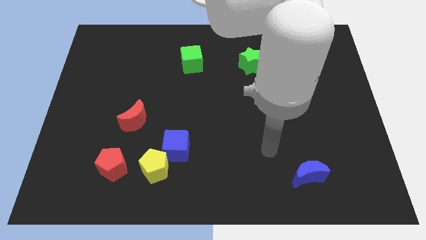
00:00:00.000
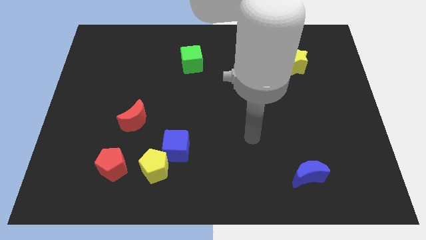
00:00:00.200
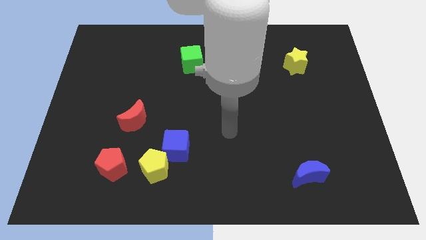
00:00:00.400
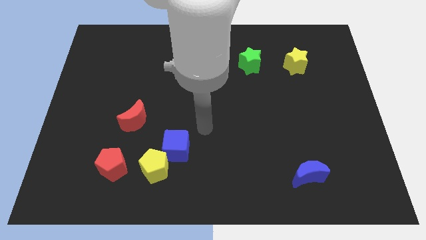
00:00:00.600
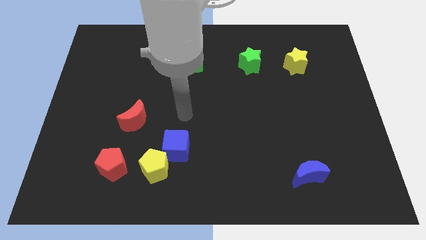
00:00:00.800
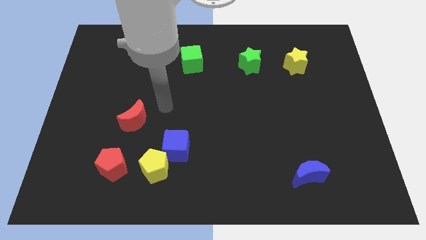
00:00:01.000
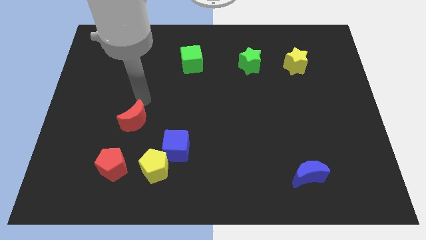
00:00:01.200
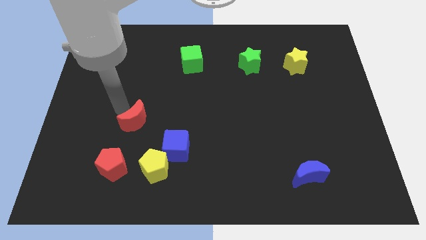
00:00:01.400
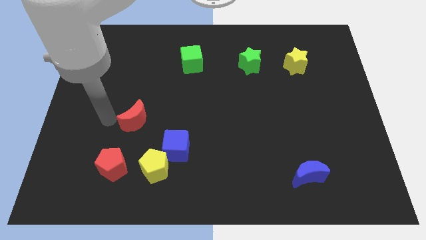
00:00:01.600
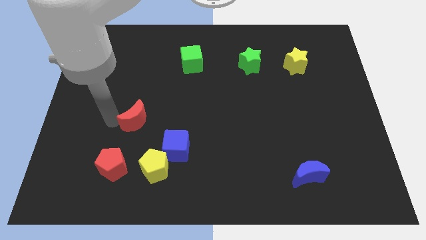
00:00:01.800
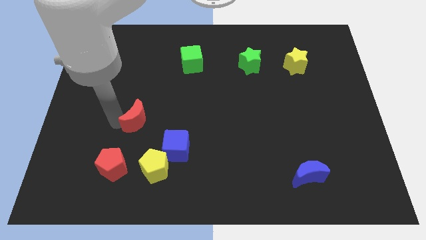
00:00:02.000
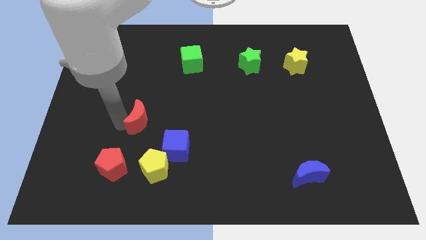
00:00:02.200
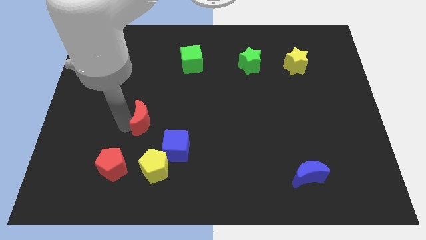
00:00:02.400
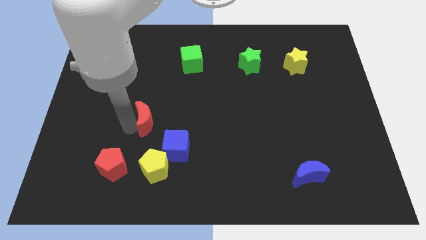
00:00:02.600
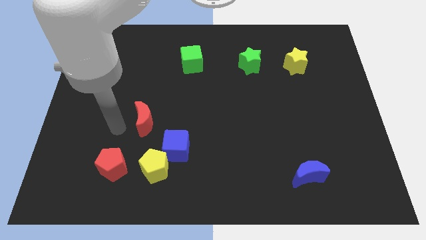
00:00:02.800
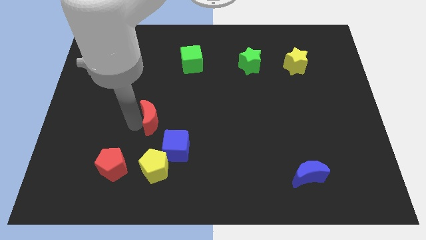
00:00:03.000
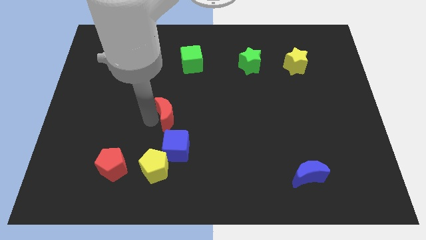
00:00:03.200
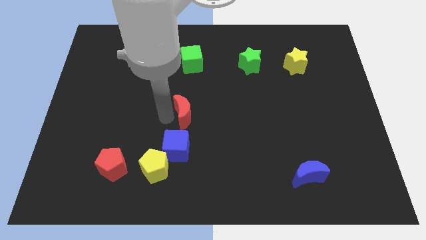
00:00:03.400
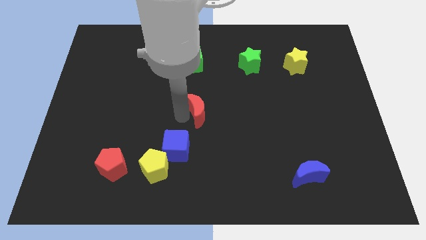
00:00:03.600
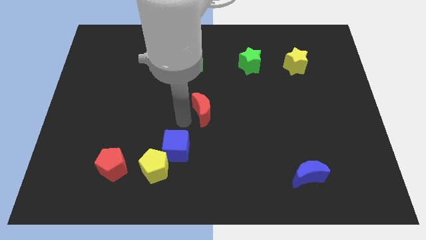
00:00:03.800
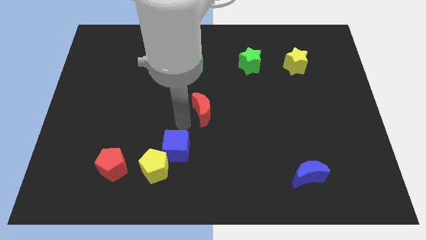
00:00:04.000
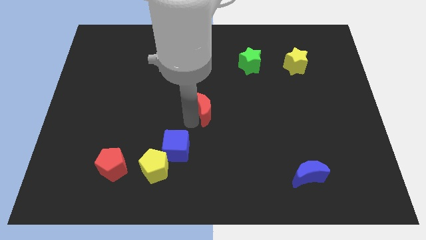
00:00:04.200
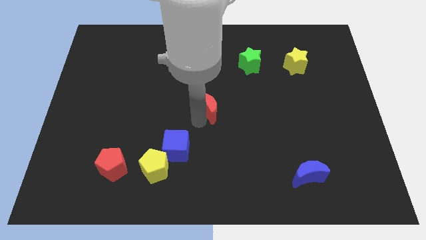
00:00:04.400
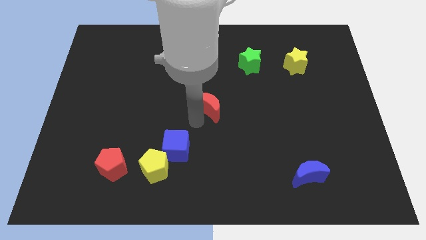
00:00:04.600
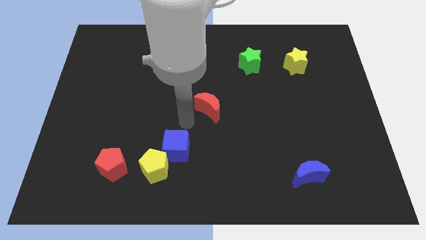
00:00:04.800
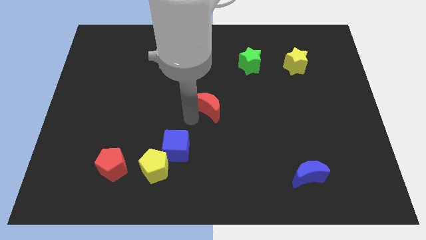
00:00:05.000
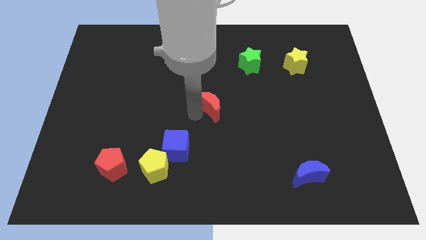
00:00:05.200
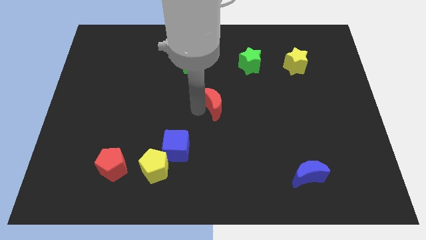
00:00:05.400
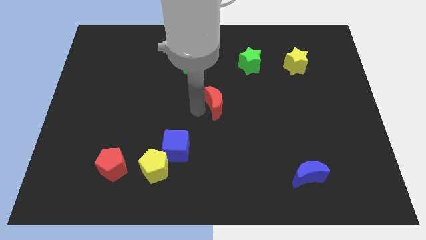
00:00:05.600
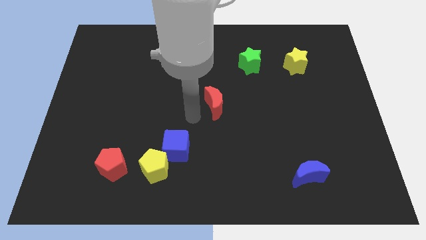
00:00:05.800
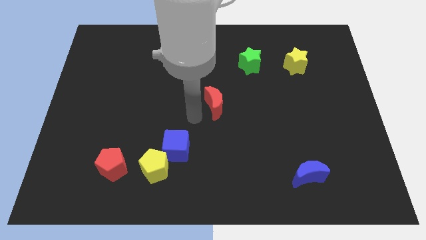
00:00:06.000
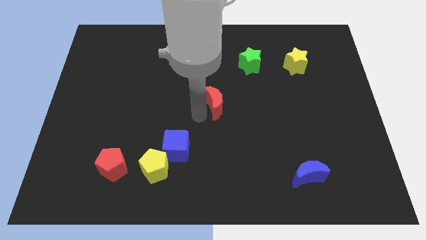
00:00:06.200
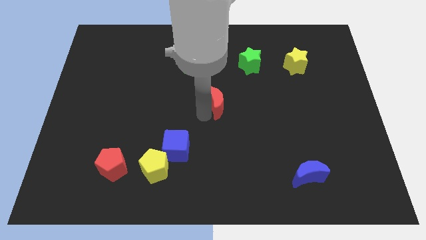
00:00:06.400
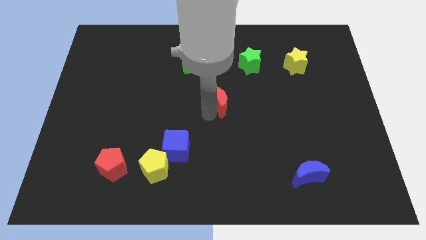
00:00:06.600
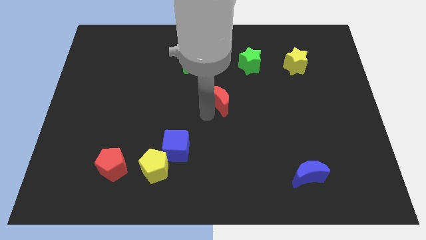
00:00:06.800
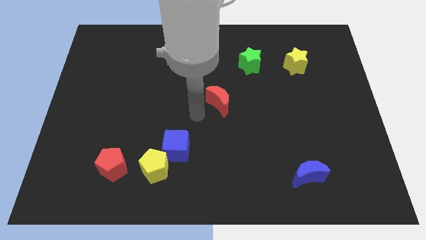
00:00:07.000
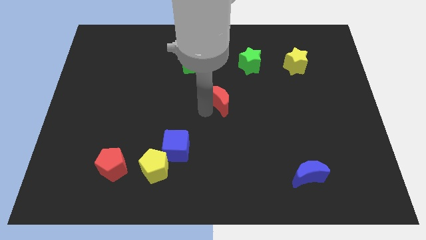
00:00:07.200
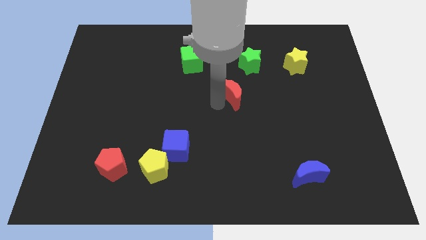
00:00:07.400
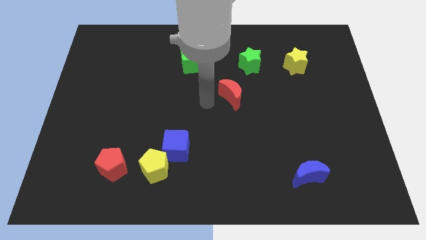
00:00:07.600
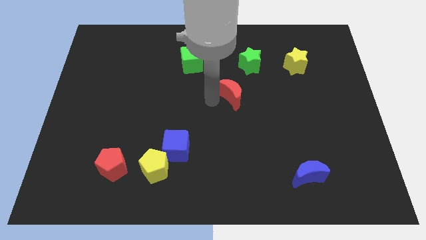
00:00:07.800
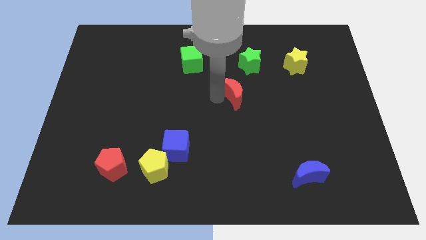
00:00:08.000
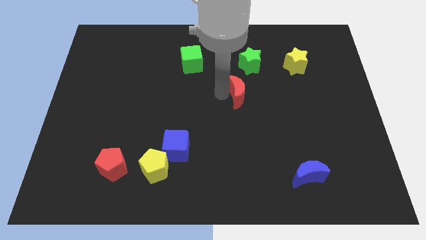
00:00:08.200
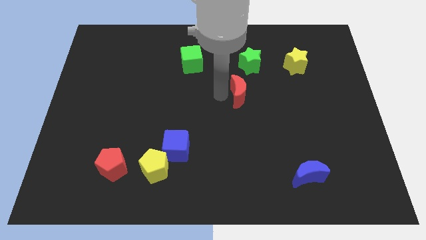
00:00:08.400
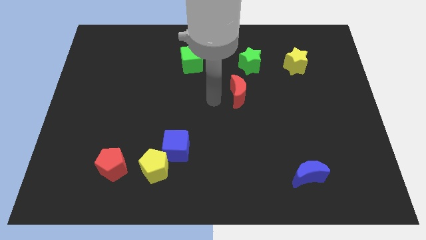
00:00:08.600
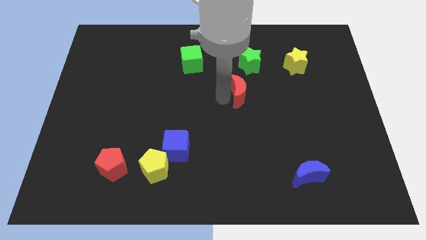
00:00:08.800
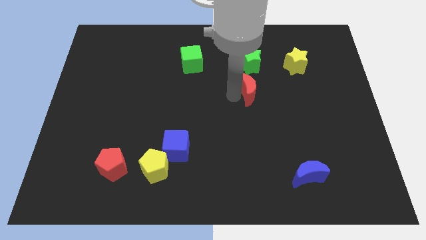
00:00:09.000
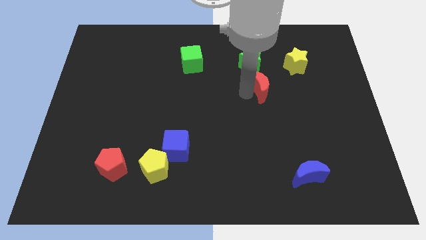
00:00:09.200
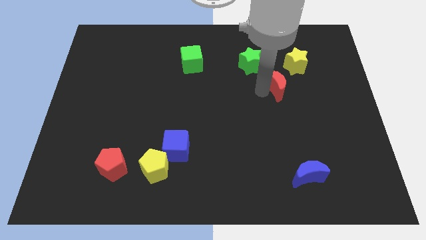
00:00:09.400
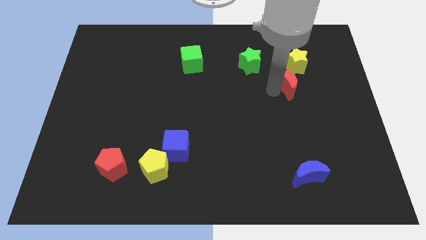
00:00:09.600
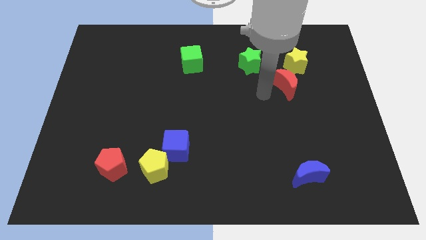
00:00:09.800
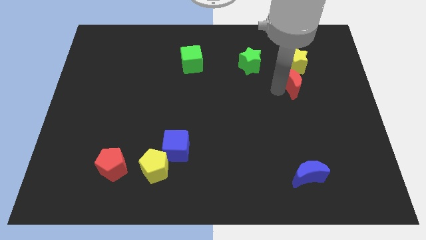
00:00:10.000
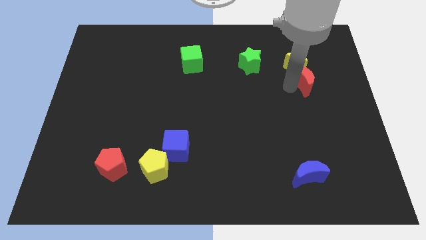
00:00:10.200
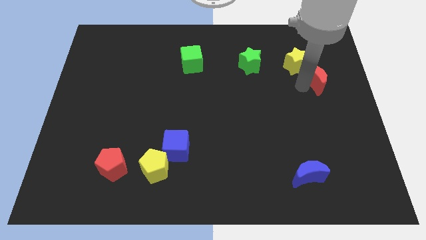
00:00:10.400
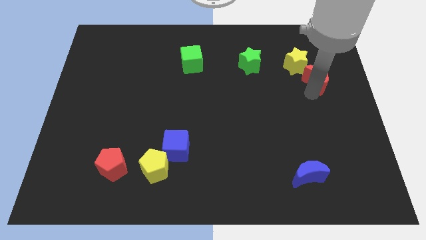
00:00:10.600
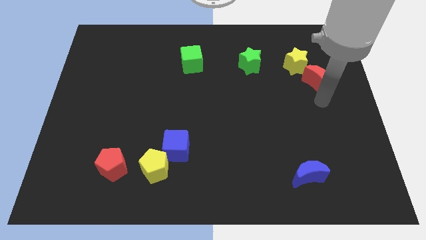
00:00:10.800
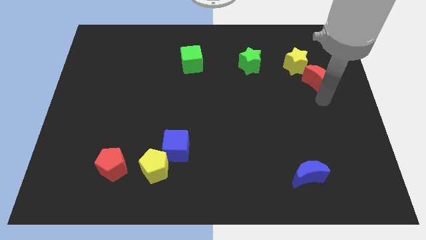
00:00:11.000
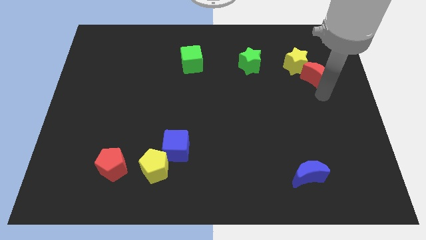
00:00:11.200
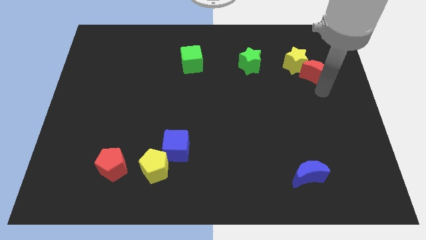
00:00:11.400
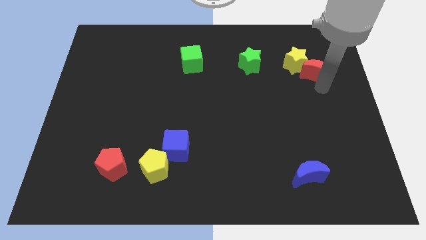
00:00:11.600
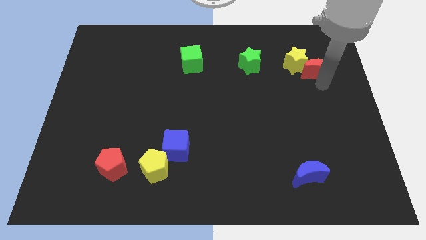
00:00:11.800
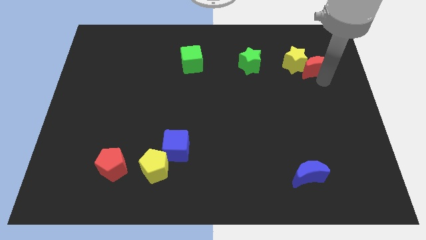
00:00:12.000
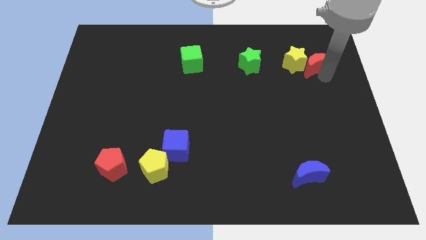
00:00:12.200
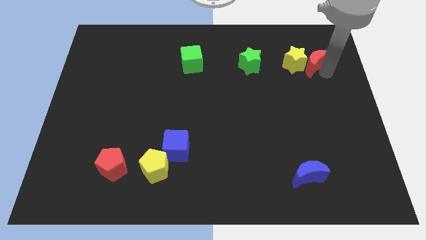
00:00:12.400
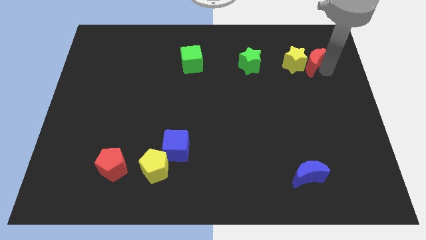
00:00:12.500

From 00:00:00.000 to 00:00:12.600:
put the red moon to the right of the green star

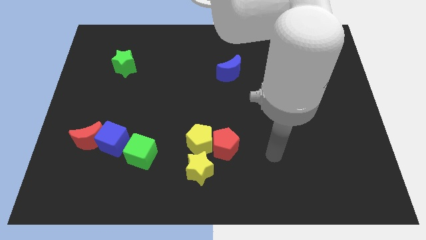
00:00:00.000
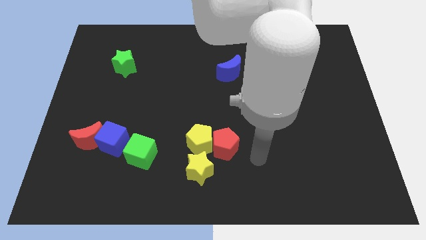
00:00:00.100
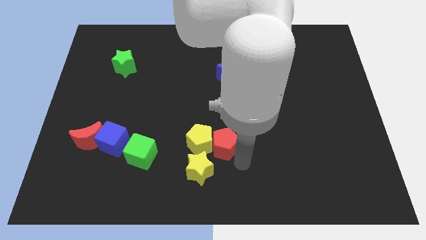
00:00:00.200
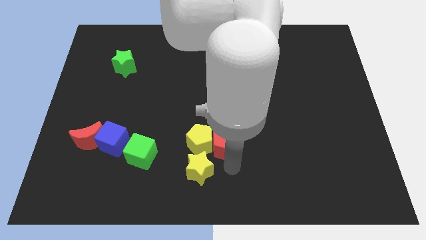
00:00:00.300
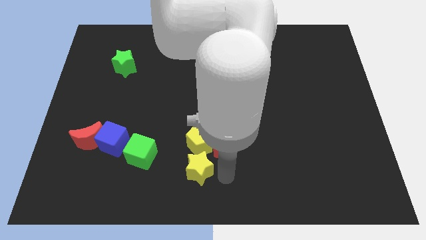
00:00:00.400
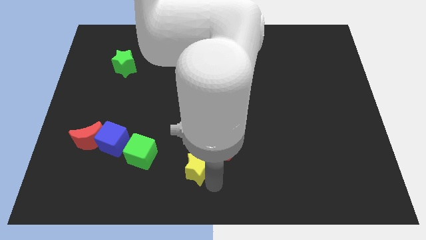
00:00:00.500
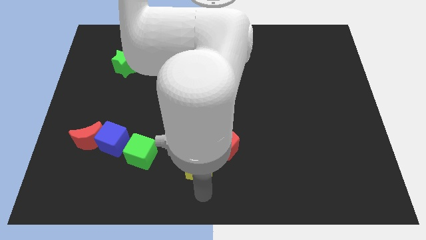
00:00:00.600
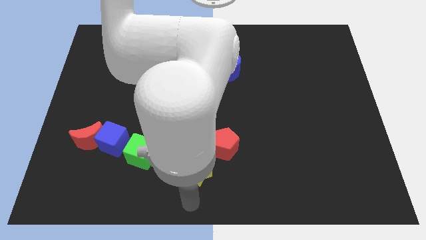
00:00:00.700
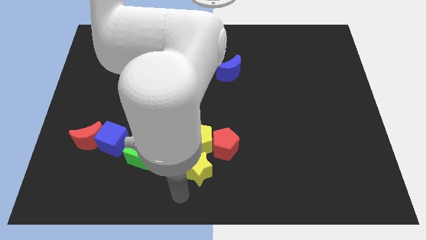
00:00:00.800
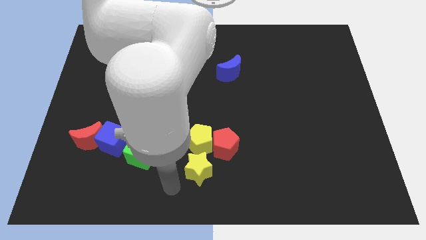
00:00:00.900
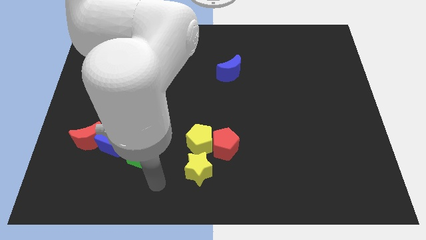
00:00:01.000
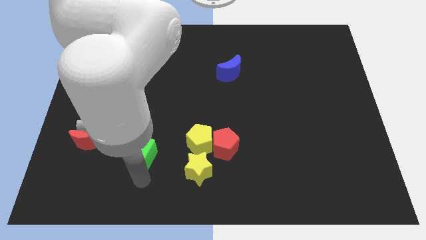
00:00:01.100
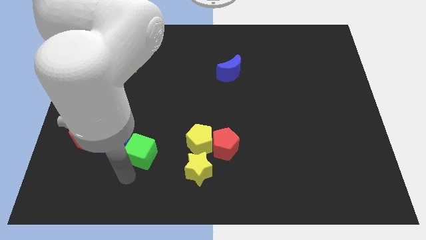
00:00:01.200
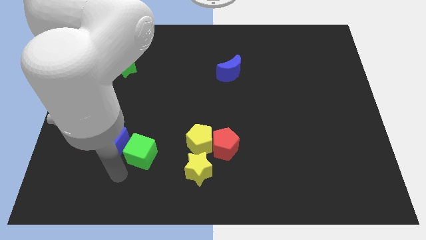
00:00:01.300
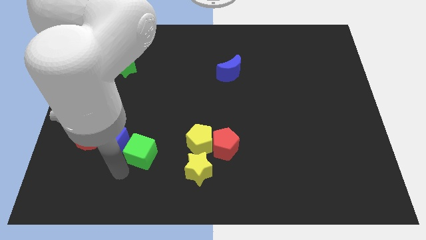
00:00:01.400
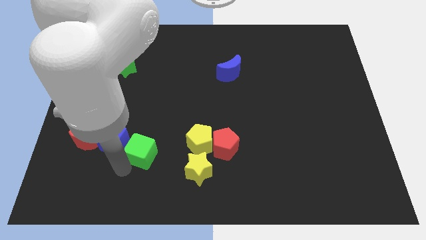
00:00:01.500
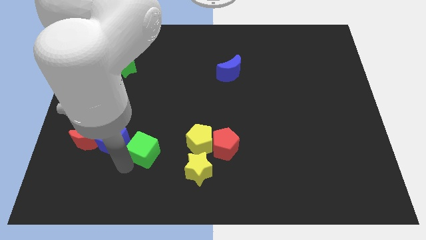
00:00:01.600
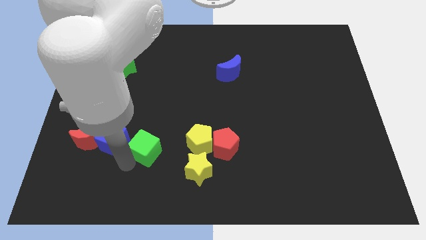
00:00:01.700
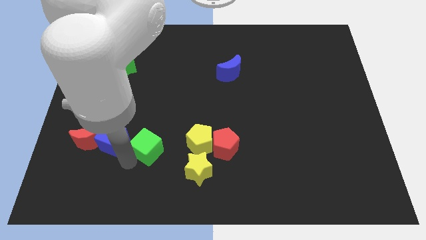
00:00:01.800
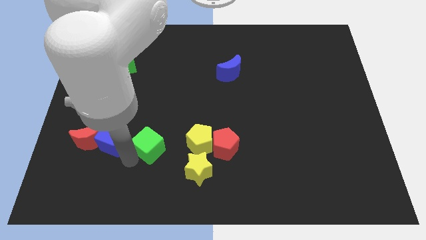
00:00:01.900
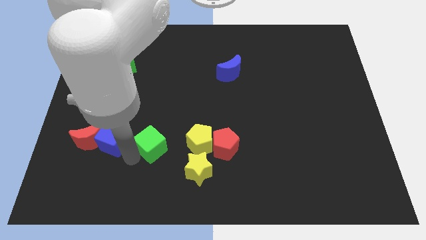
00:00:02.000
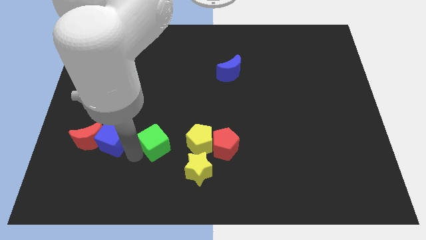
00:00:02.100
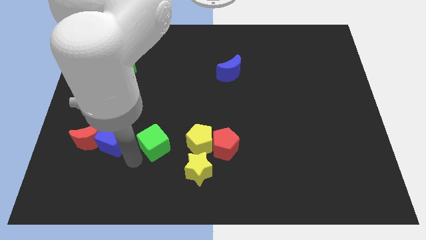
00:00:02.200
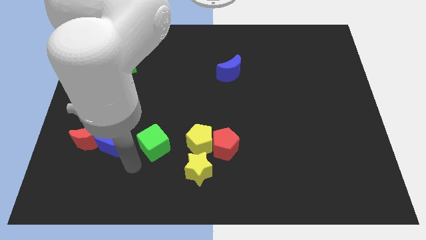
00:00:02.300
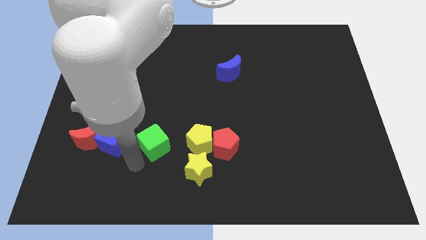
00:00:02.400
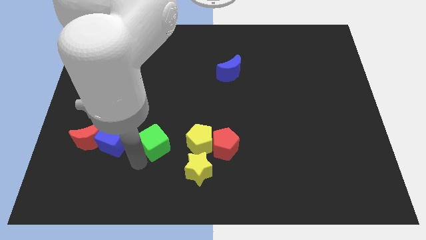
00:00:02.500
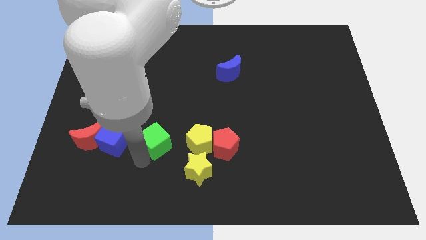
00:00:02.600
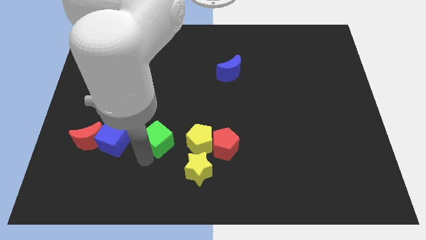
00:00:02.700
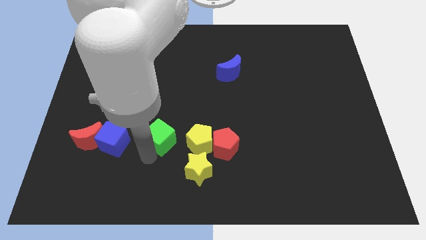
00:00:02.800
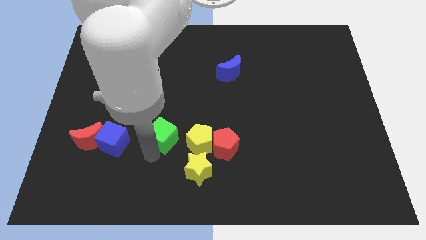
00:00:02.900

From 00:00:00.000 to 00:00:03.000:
push the green cube to the top left side of the yellow pentagon
